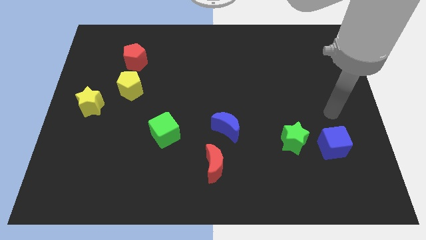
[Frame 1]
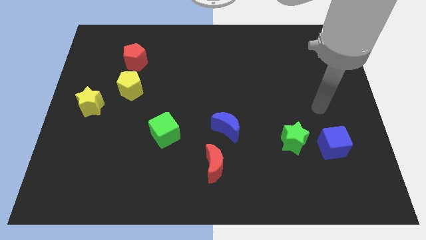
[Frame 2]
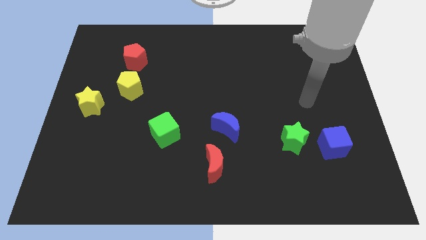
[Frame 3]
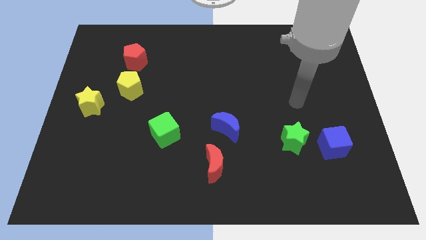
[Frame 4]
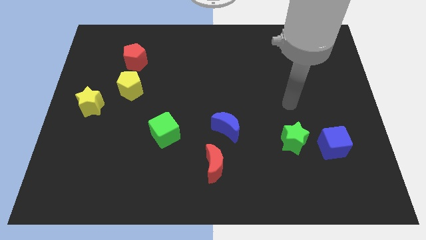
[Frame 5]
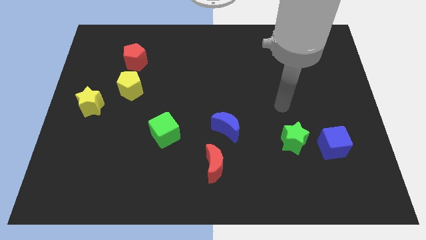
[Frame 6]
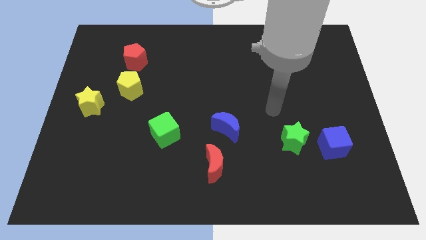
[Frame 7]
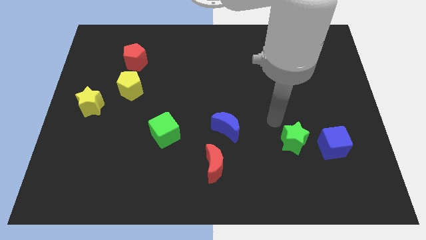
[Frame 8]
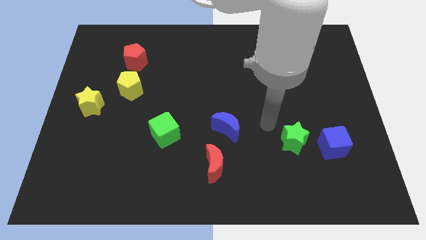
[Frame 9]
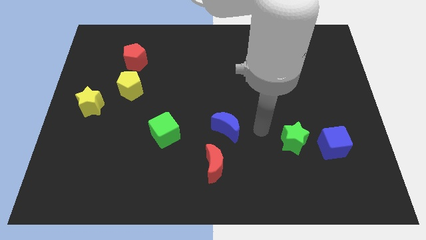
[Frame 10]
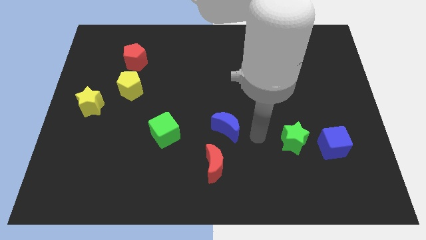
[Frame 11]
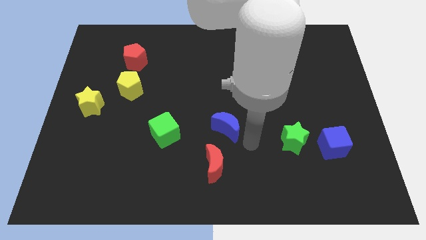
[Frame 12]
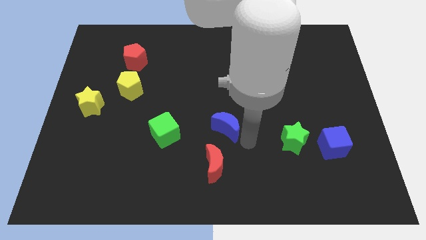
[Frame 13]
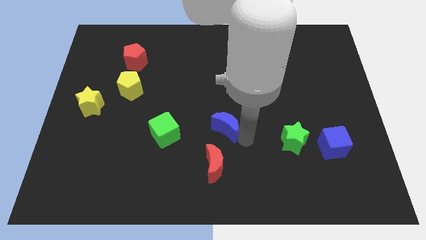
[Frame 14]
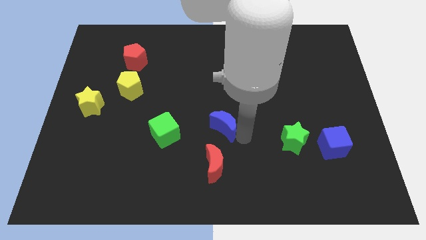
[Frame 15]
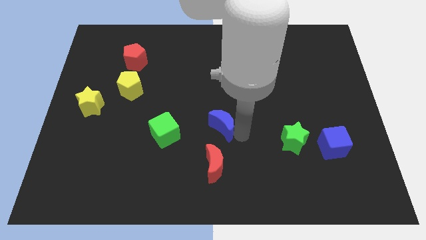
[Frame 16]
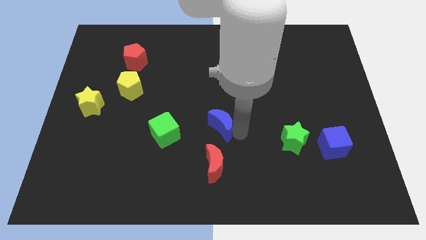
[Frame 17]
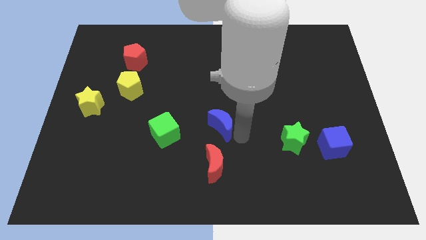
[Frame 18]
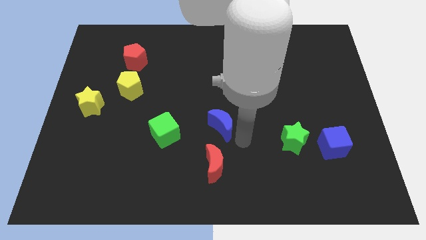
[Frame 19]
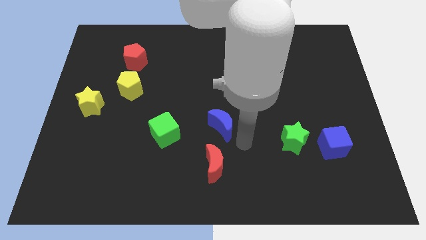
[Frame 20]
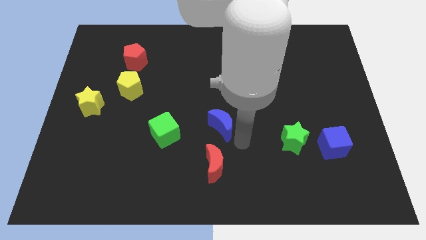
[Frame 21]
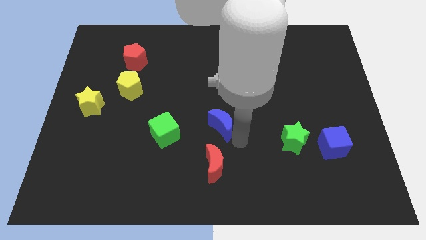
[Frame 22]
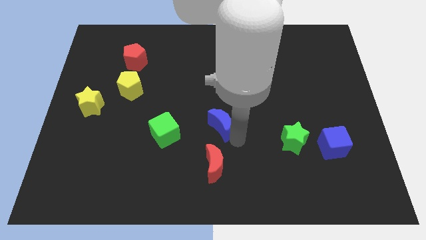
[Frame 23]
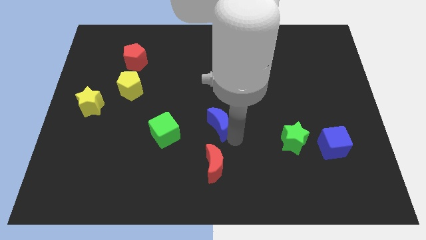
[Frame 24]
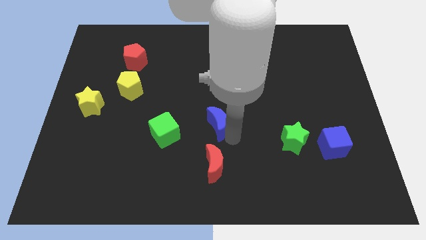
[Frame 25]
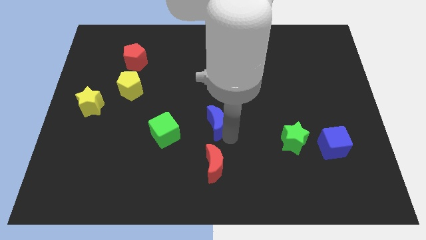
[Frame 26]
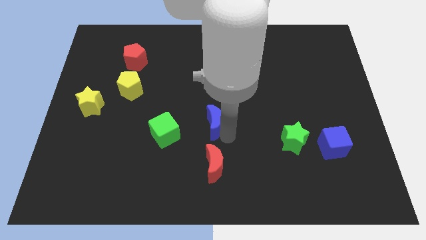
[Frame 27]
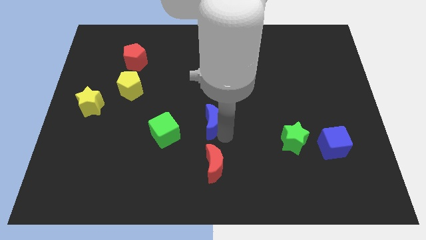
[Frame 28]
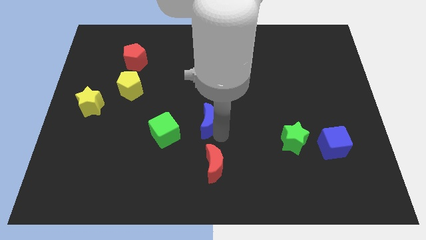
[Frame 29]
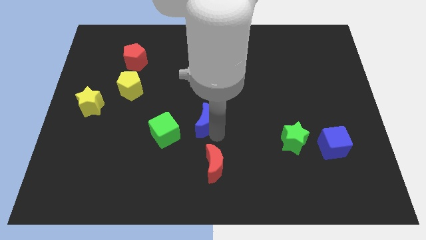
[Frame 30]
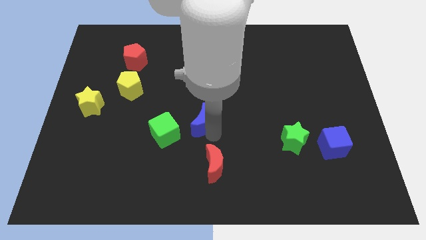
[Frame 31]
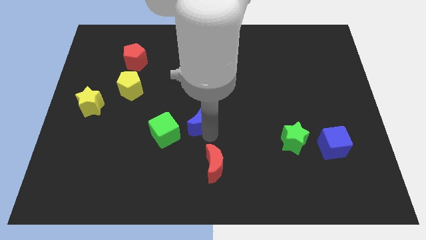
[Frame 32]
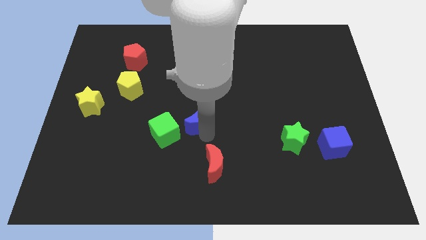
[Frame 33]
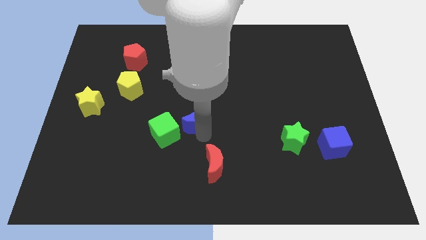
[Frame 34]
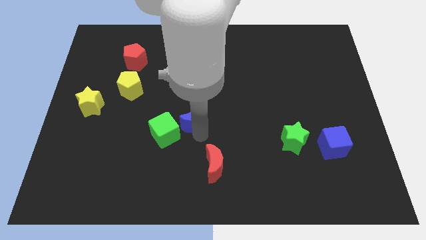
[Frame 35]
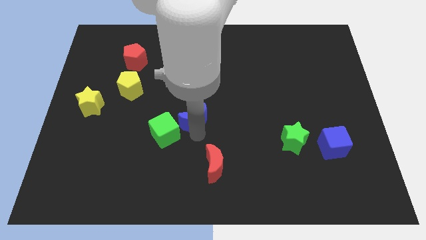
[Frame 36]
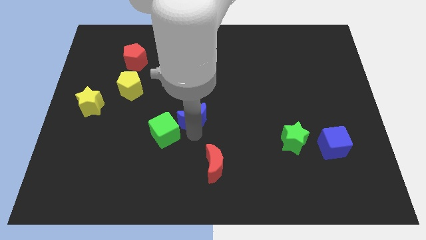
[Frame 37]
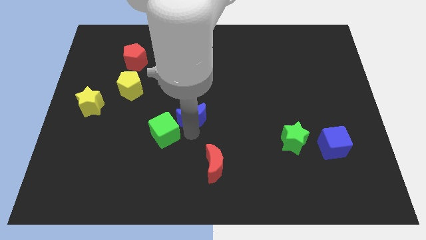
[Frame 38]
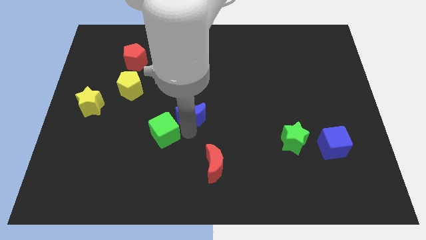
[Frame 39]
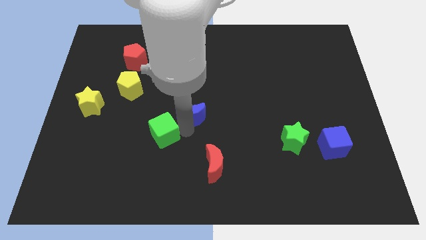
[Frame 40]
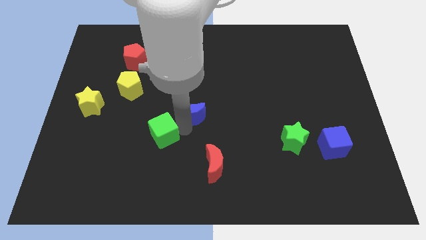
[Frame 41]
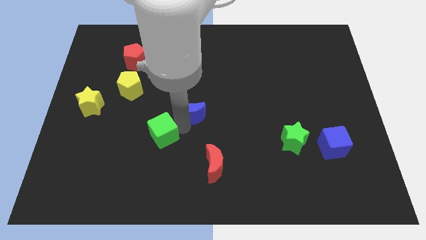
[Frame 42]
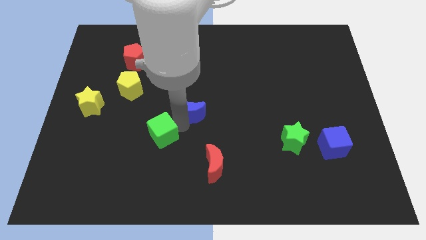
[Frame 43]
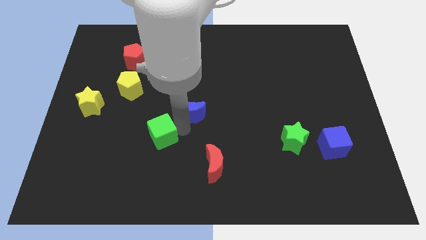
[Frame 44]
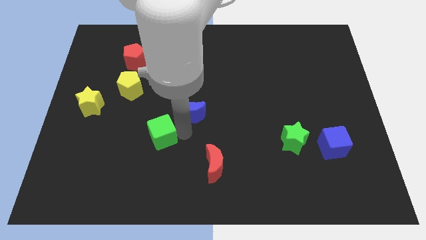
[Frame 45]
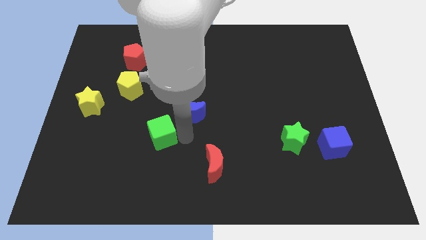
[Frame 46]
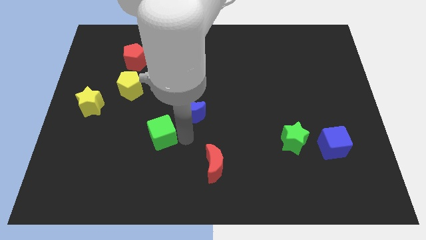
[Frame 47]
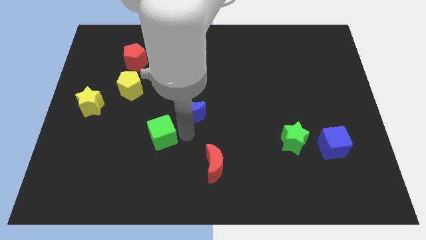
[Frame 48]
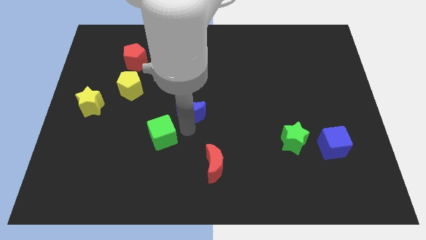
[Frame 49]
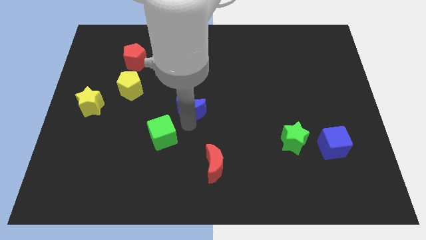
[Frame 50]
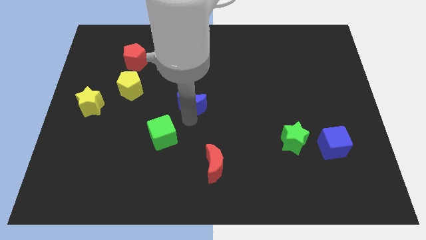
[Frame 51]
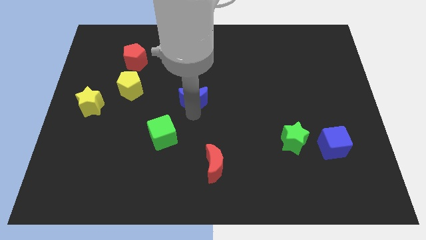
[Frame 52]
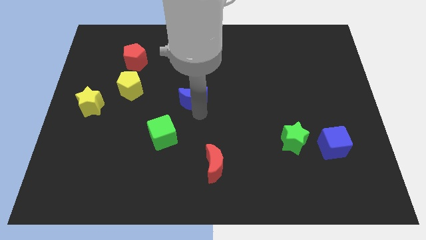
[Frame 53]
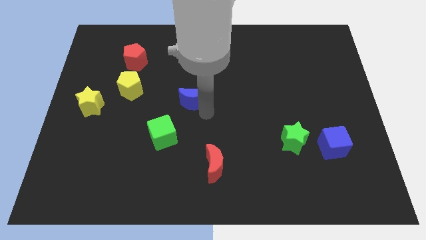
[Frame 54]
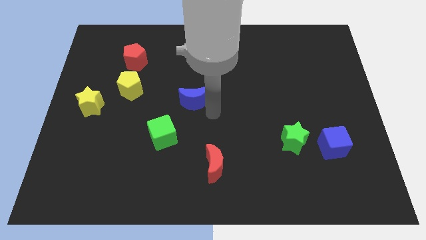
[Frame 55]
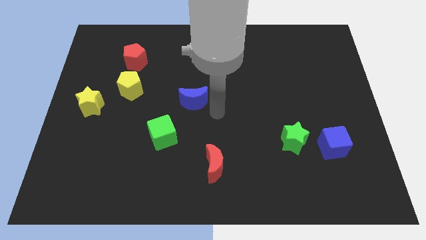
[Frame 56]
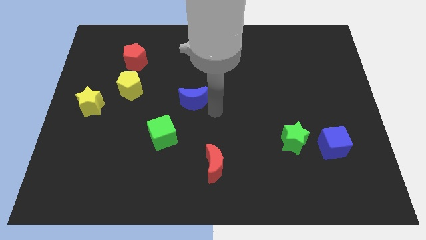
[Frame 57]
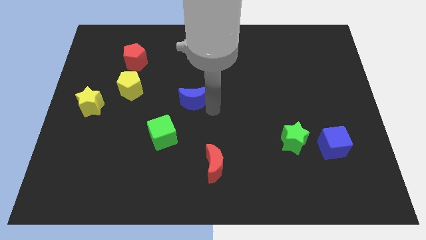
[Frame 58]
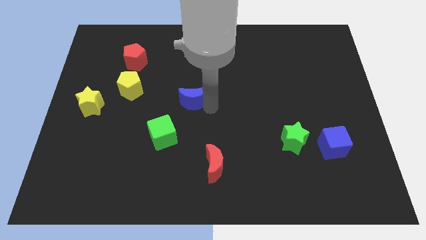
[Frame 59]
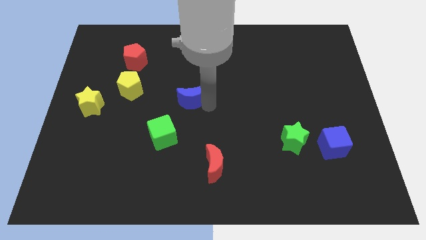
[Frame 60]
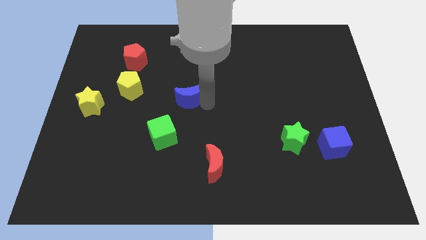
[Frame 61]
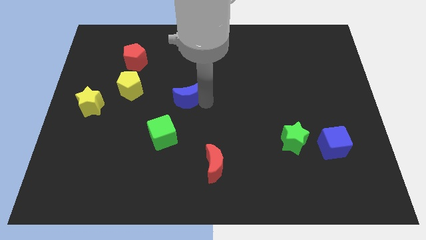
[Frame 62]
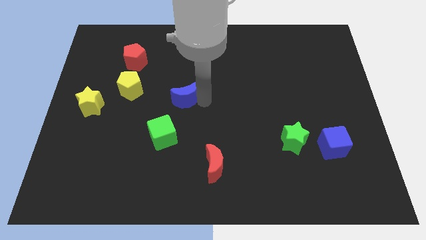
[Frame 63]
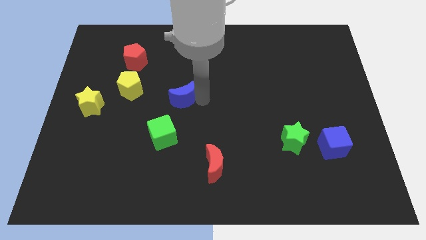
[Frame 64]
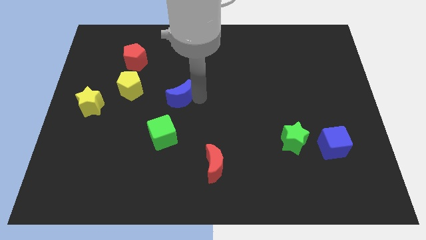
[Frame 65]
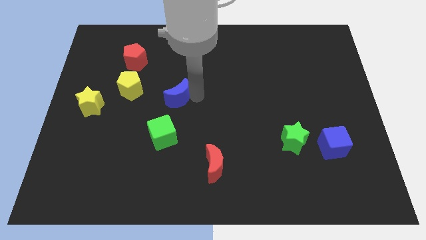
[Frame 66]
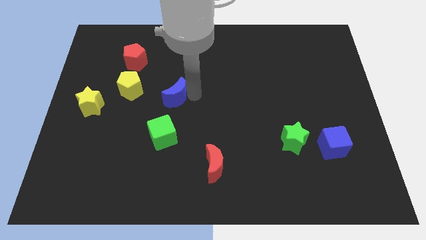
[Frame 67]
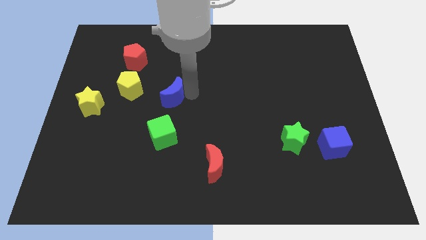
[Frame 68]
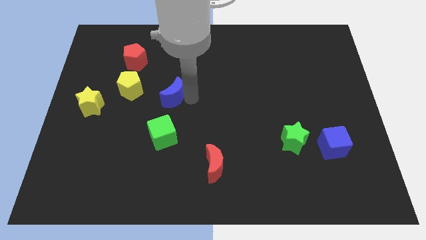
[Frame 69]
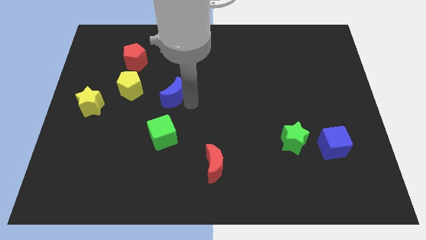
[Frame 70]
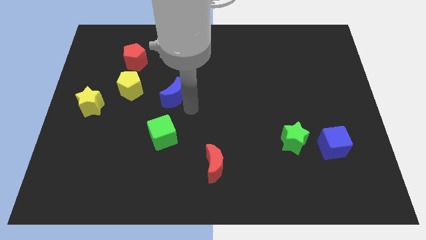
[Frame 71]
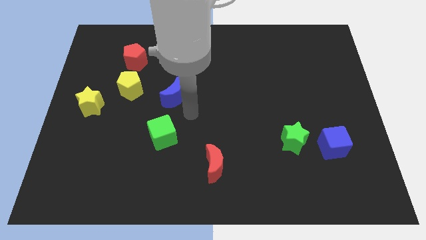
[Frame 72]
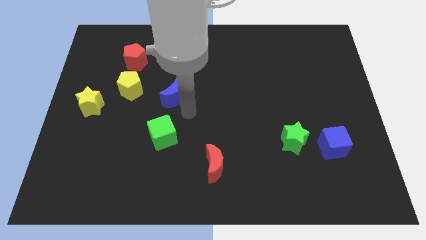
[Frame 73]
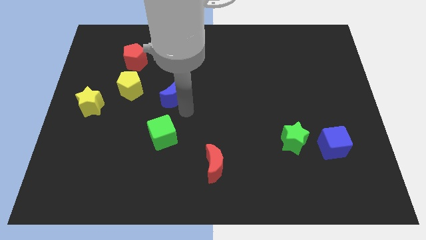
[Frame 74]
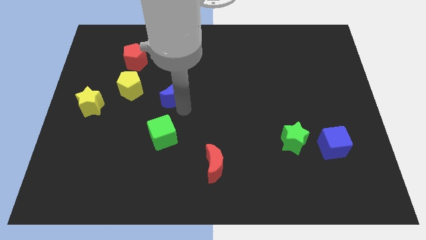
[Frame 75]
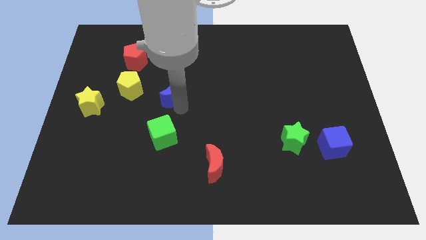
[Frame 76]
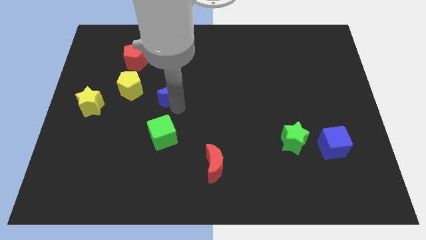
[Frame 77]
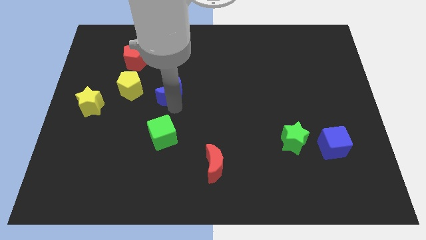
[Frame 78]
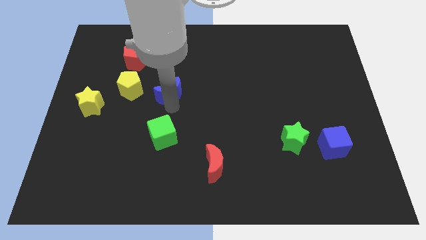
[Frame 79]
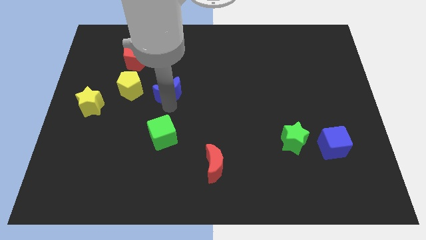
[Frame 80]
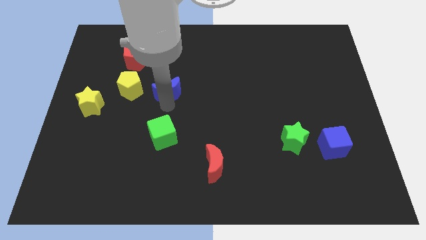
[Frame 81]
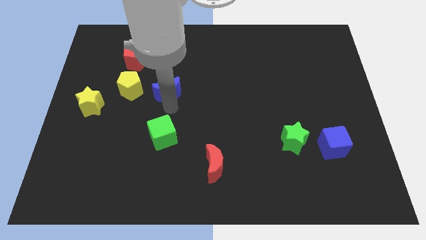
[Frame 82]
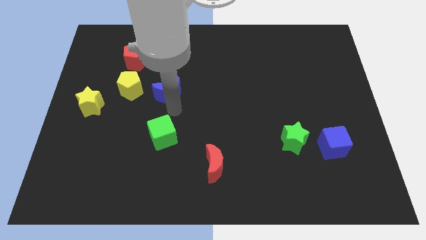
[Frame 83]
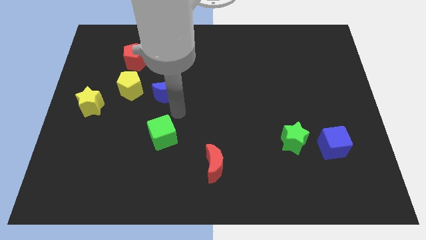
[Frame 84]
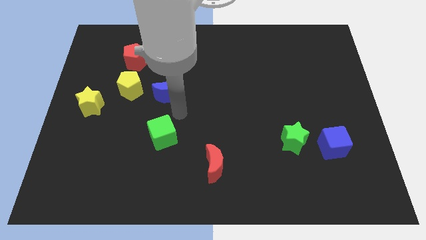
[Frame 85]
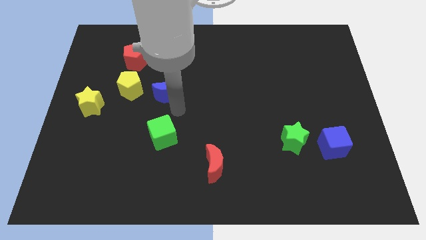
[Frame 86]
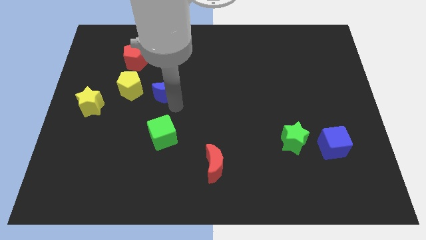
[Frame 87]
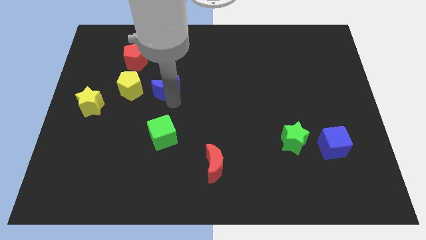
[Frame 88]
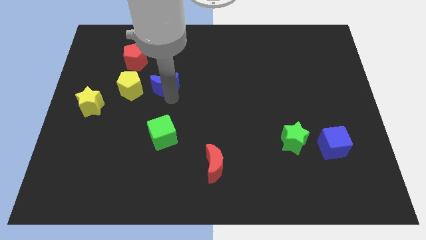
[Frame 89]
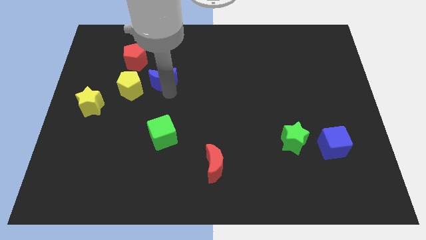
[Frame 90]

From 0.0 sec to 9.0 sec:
move the blue moon to the top right of the yellow pentagon
